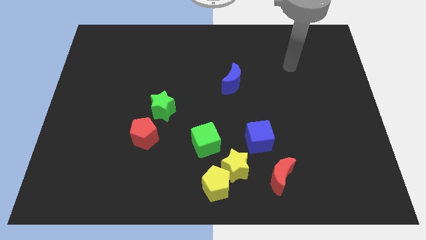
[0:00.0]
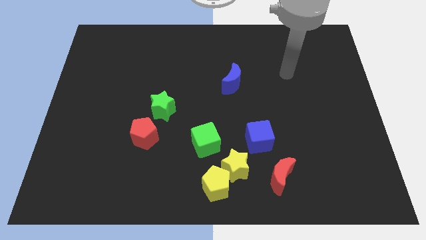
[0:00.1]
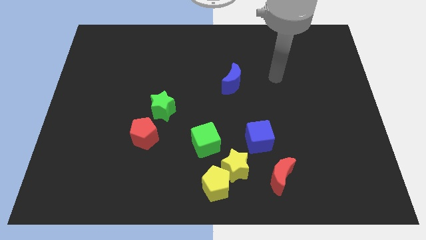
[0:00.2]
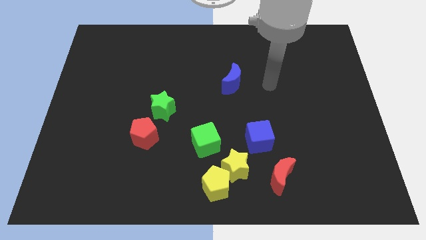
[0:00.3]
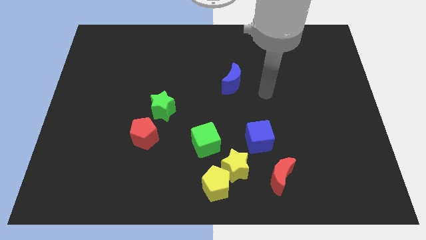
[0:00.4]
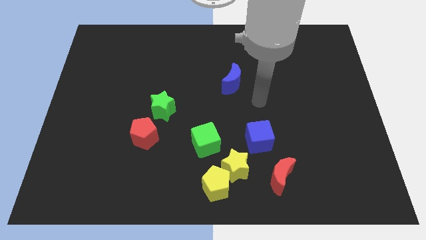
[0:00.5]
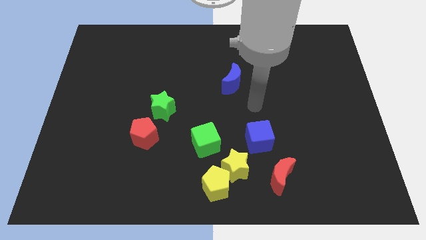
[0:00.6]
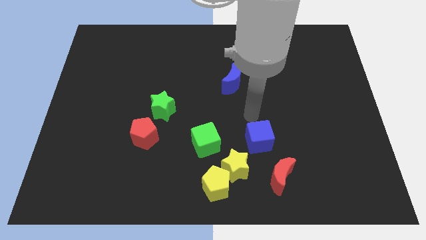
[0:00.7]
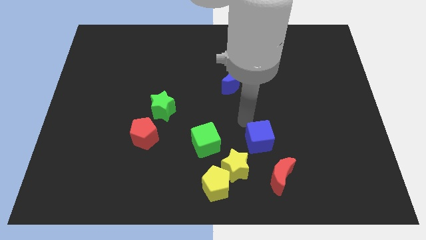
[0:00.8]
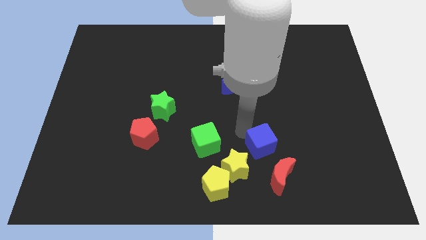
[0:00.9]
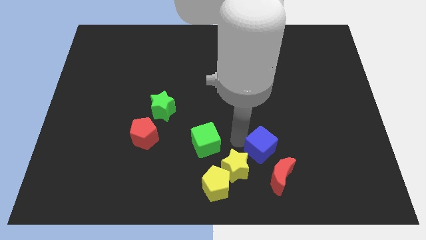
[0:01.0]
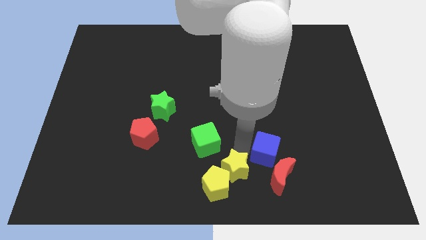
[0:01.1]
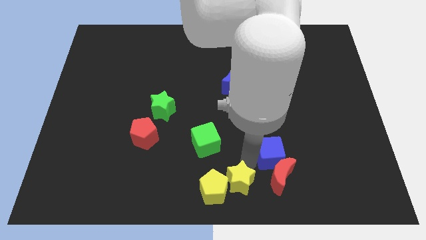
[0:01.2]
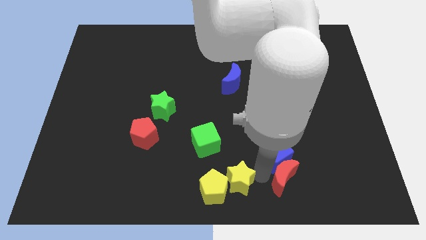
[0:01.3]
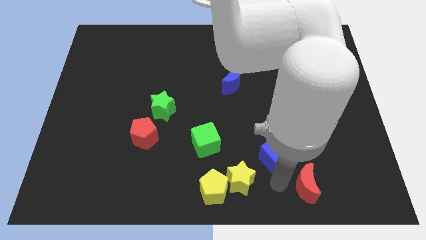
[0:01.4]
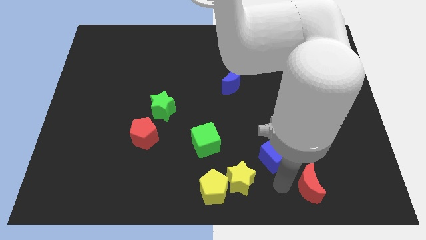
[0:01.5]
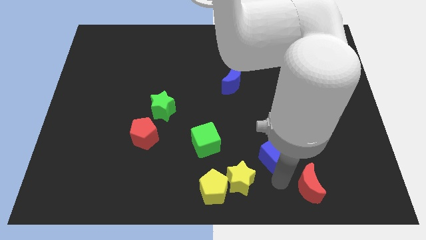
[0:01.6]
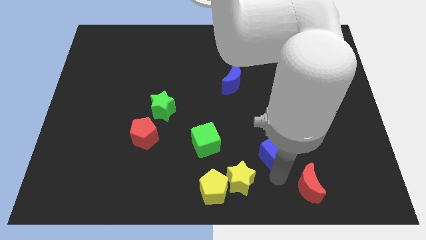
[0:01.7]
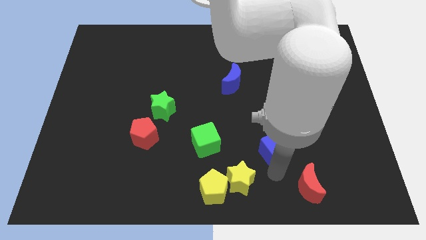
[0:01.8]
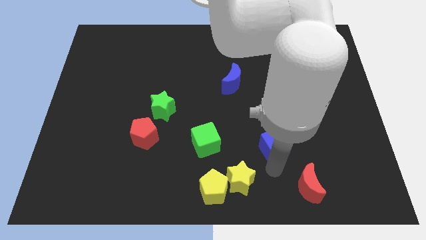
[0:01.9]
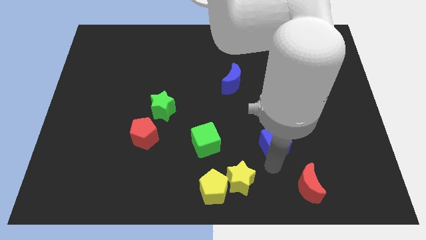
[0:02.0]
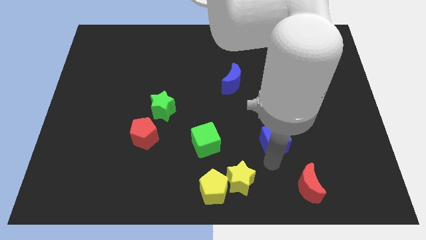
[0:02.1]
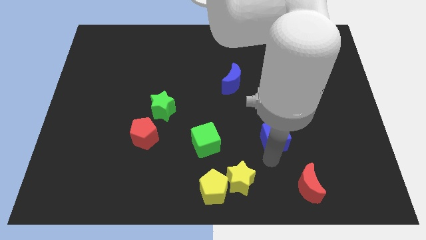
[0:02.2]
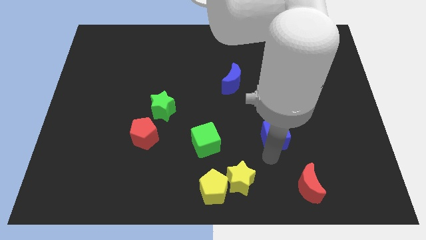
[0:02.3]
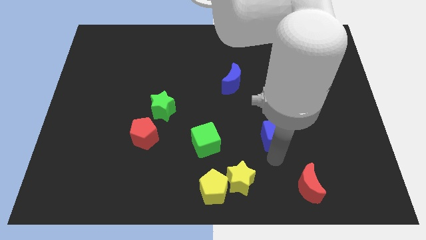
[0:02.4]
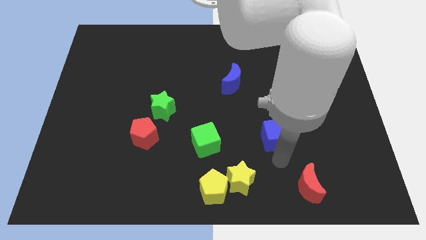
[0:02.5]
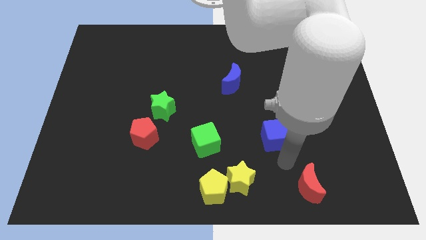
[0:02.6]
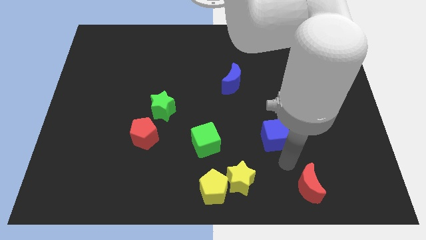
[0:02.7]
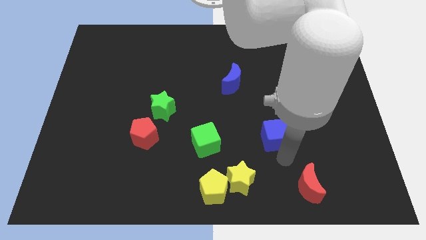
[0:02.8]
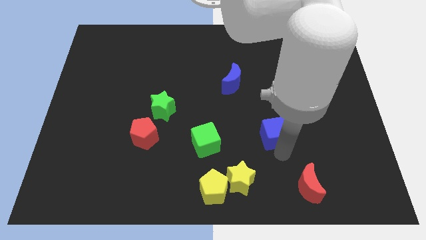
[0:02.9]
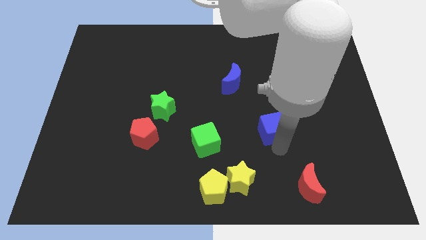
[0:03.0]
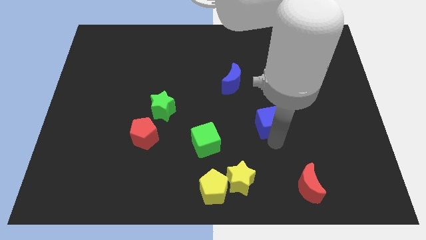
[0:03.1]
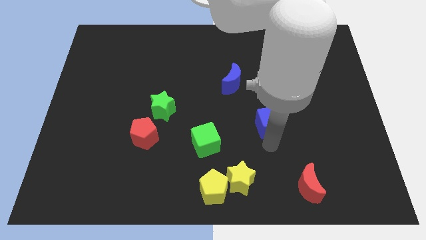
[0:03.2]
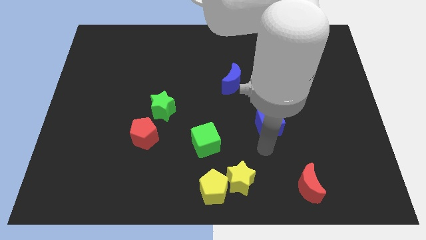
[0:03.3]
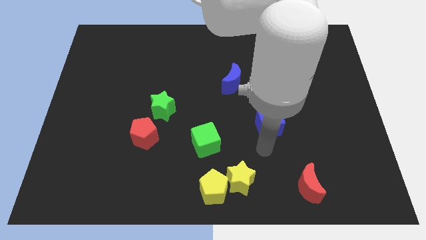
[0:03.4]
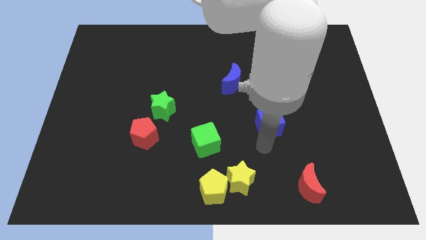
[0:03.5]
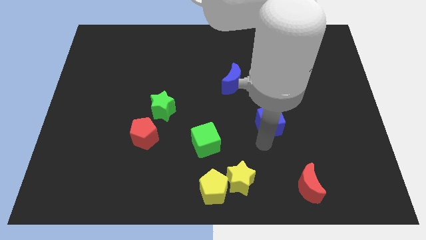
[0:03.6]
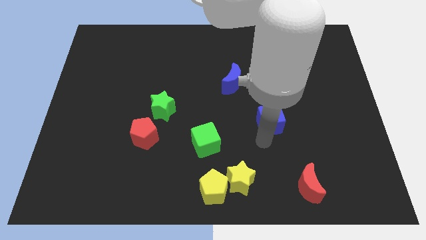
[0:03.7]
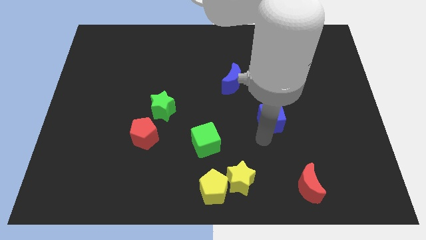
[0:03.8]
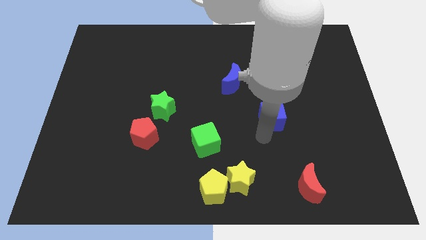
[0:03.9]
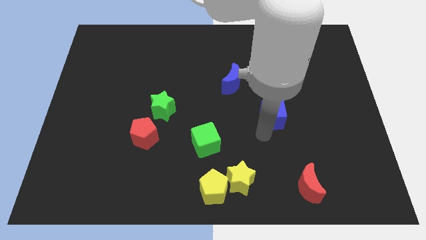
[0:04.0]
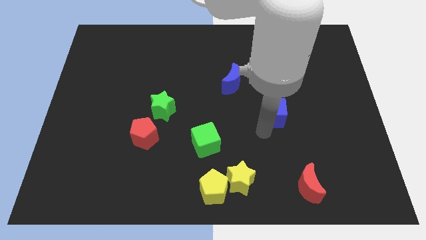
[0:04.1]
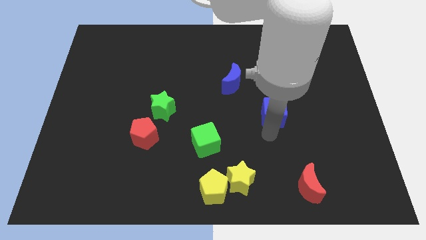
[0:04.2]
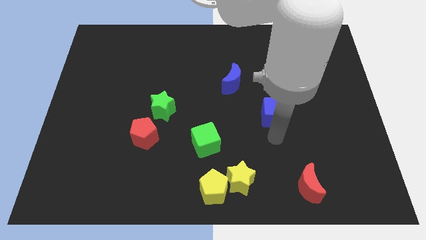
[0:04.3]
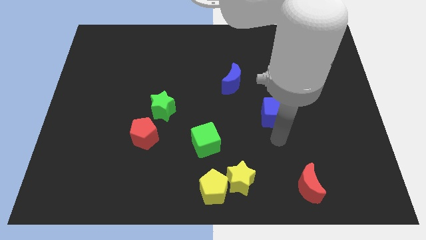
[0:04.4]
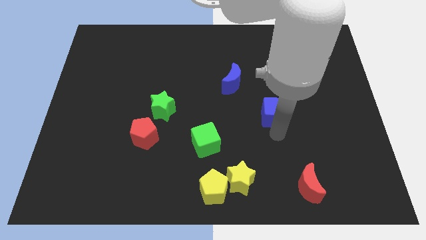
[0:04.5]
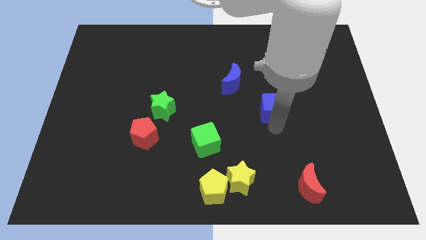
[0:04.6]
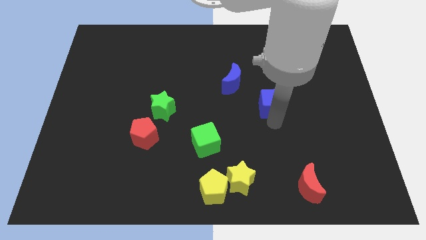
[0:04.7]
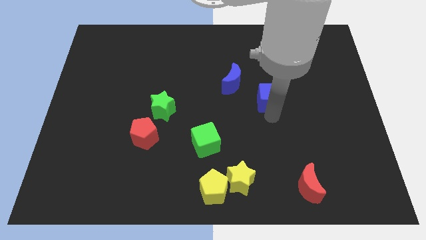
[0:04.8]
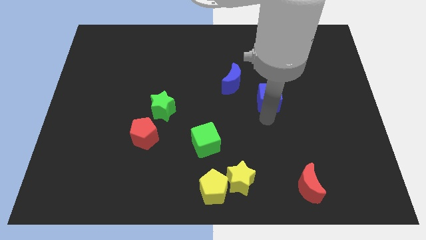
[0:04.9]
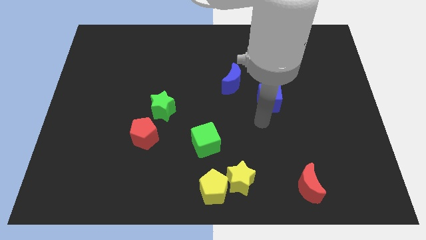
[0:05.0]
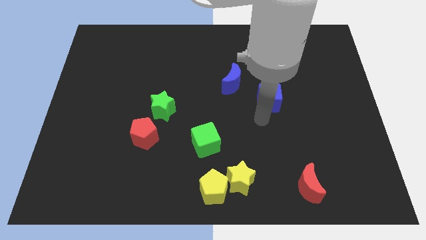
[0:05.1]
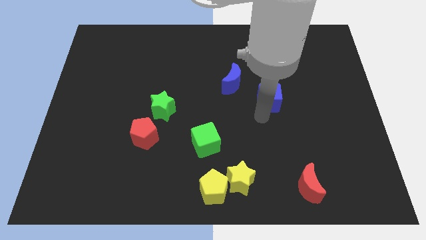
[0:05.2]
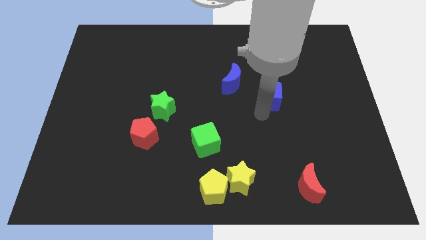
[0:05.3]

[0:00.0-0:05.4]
slide the blue cube right of the blue moon

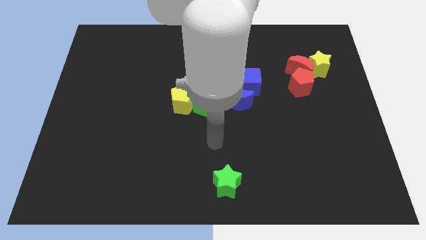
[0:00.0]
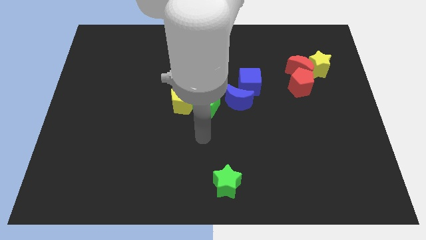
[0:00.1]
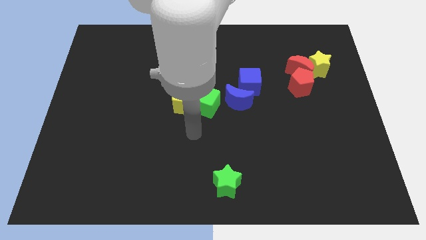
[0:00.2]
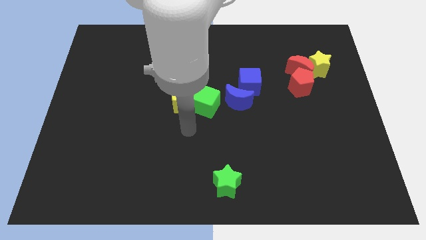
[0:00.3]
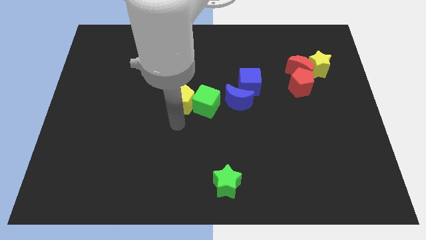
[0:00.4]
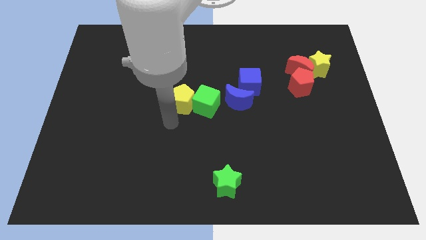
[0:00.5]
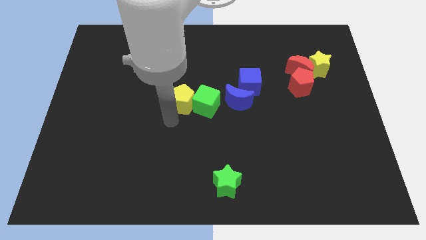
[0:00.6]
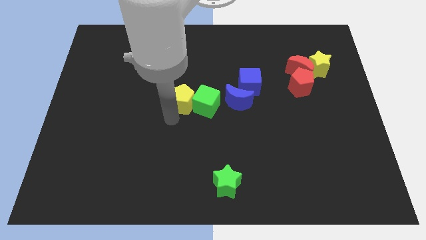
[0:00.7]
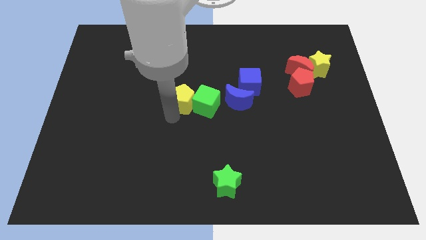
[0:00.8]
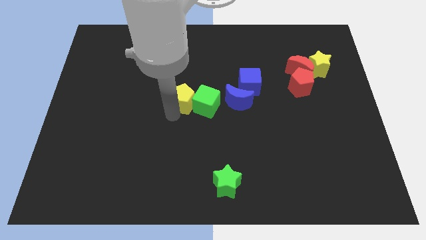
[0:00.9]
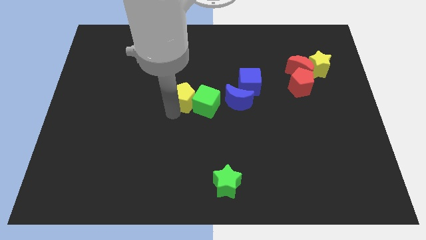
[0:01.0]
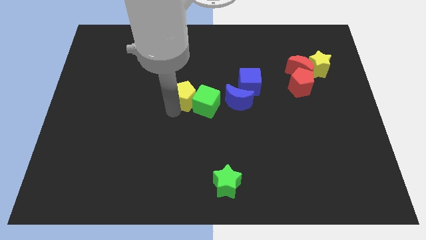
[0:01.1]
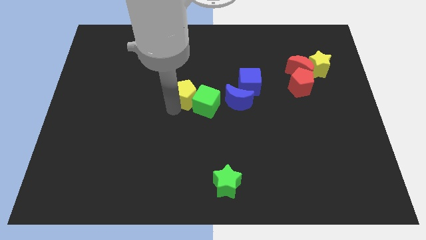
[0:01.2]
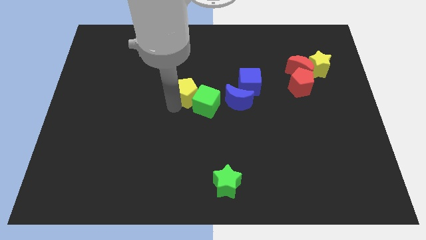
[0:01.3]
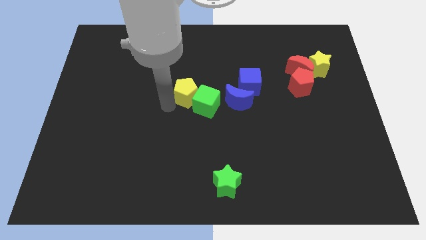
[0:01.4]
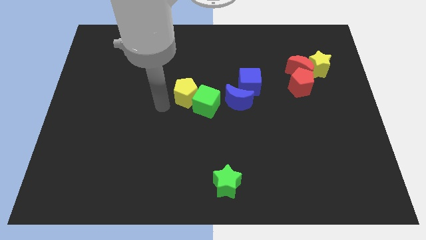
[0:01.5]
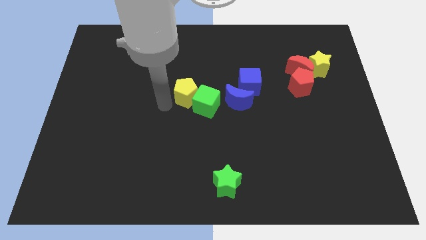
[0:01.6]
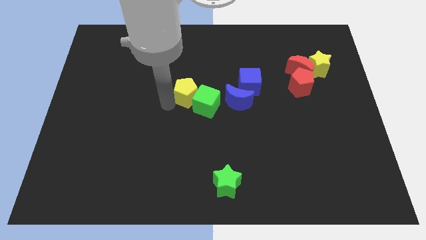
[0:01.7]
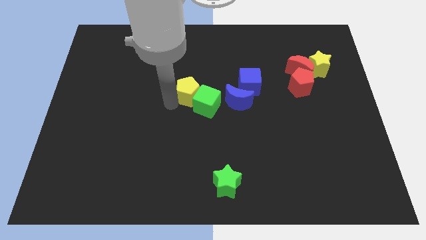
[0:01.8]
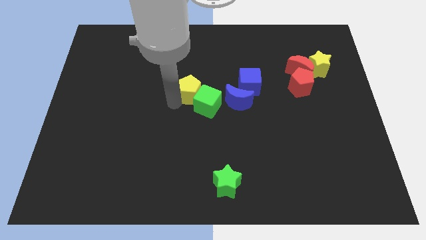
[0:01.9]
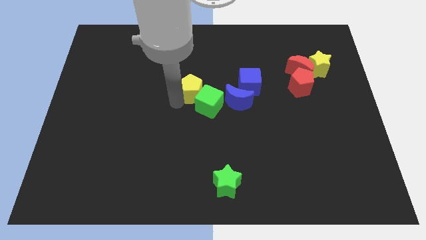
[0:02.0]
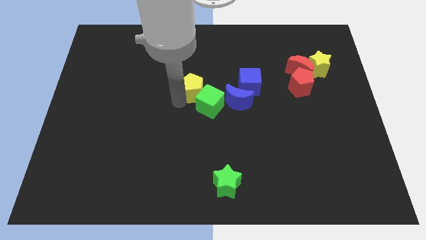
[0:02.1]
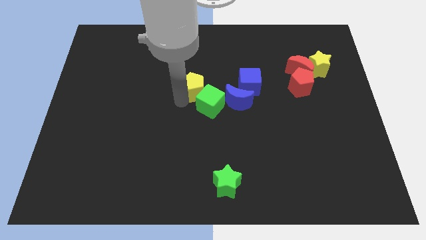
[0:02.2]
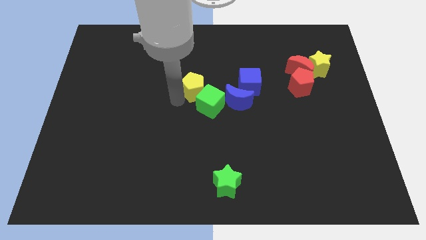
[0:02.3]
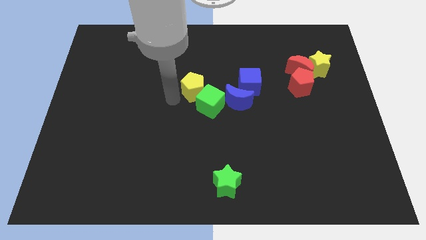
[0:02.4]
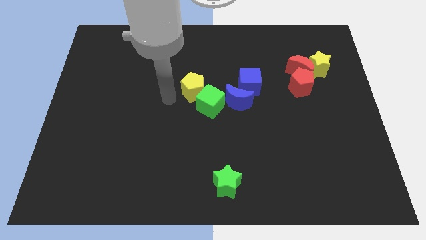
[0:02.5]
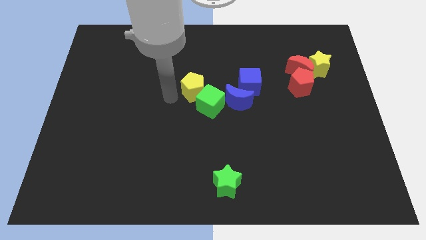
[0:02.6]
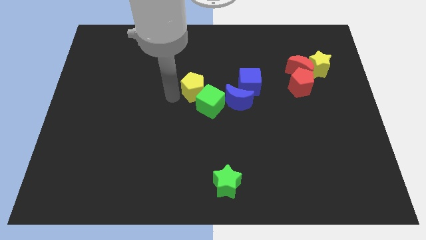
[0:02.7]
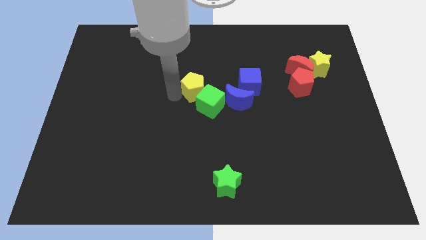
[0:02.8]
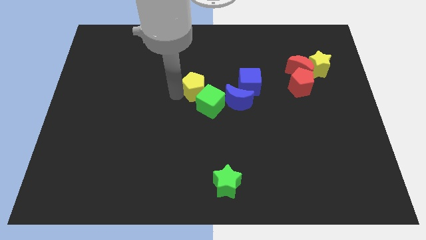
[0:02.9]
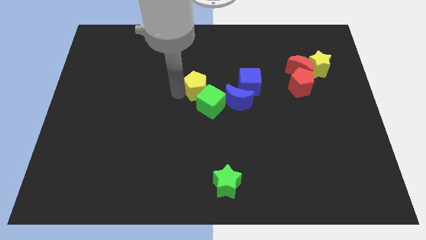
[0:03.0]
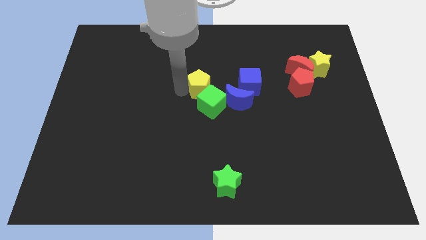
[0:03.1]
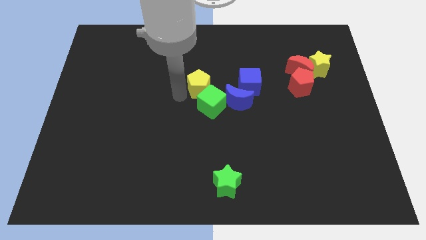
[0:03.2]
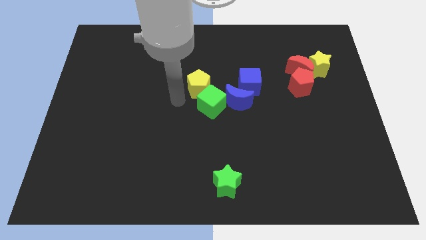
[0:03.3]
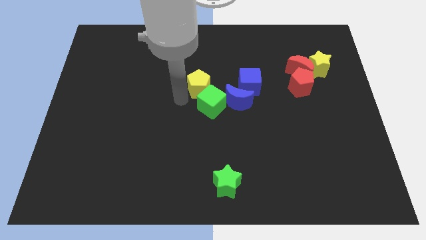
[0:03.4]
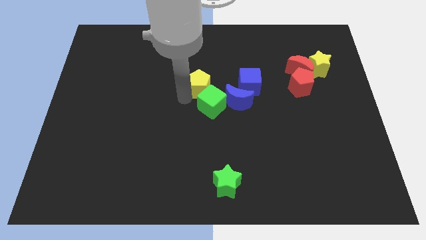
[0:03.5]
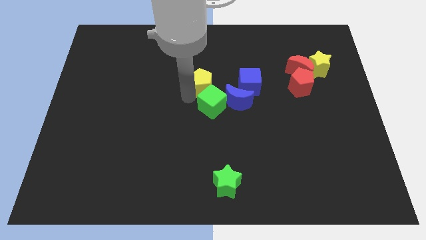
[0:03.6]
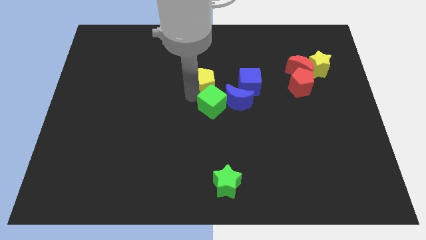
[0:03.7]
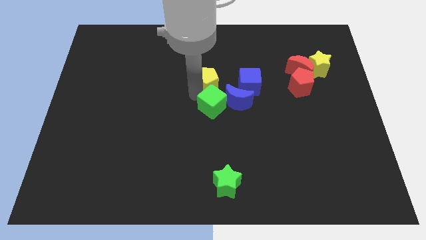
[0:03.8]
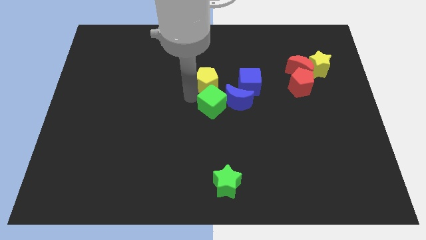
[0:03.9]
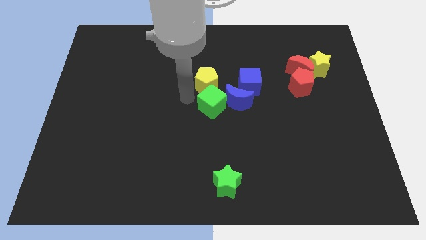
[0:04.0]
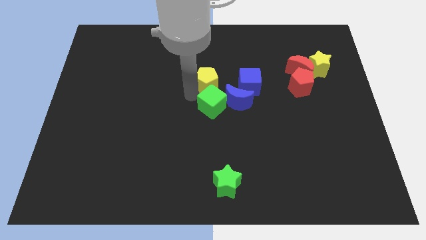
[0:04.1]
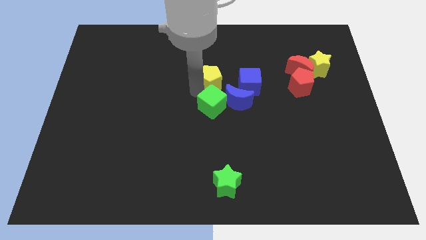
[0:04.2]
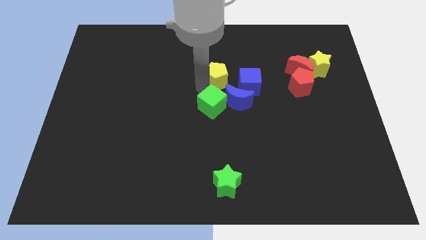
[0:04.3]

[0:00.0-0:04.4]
move the yellow pentagon diagonally up and to the left of the blue cube
